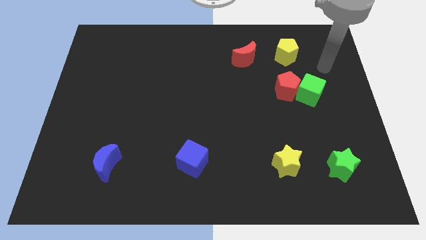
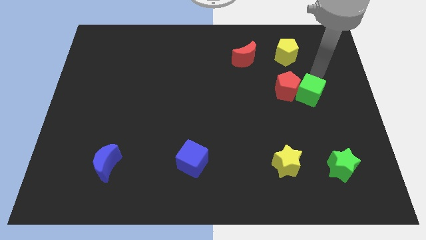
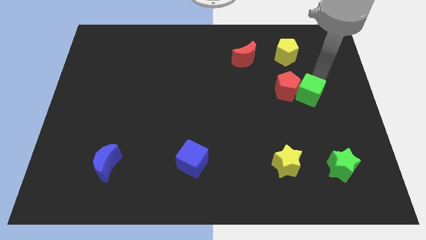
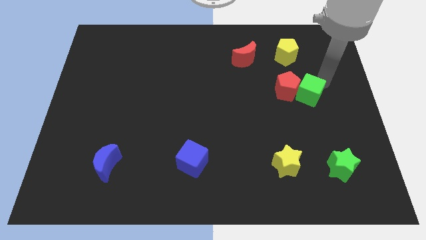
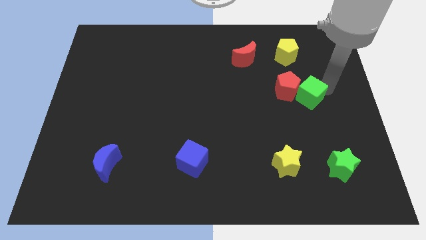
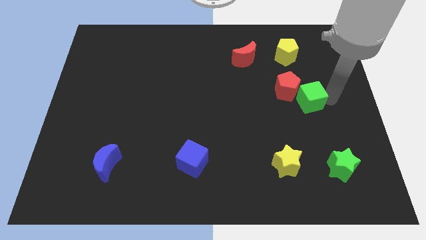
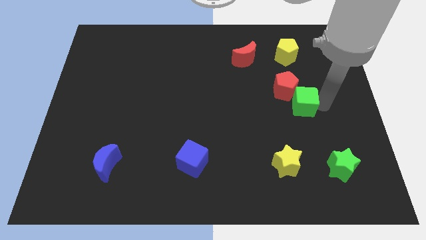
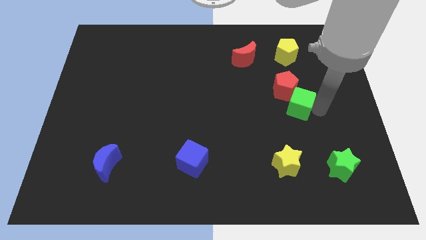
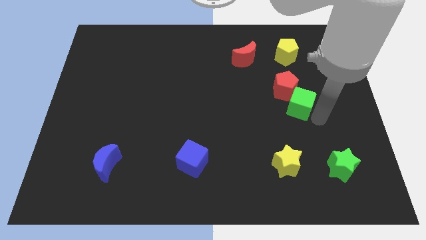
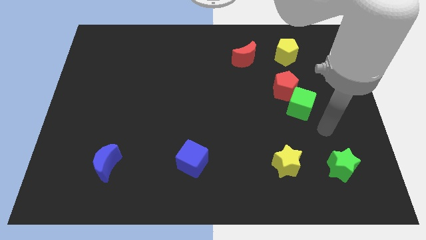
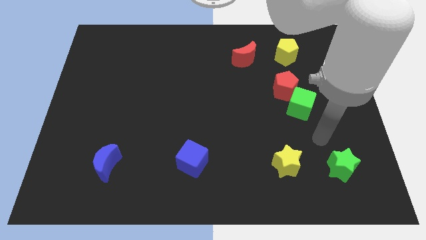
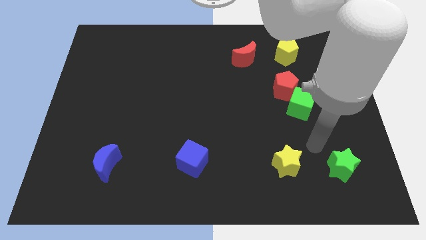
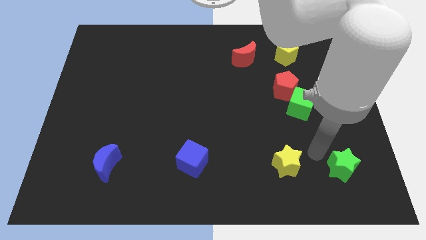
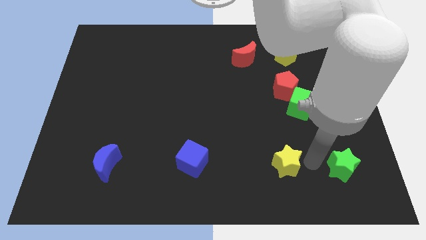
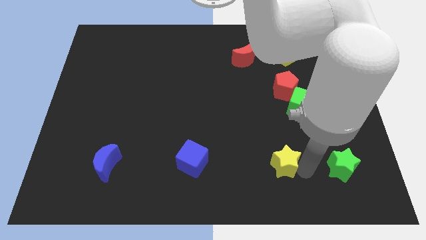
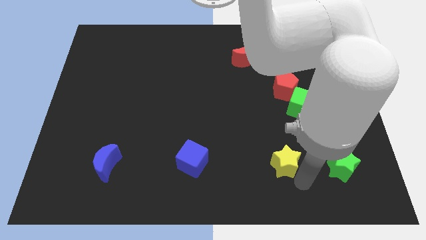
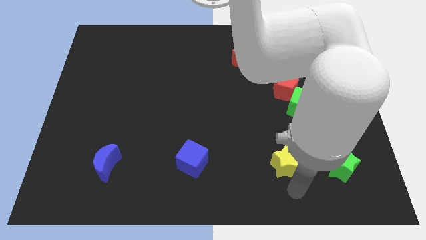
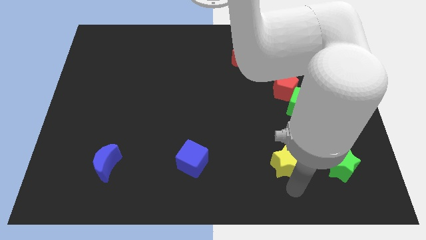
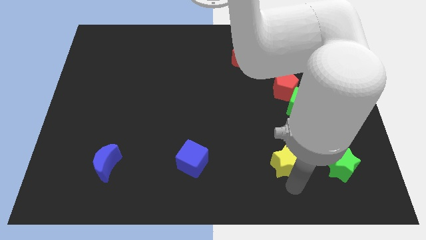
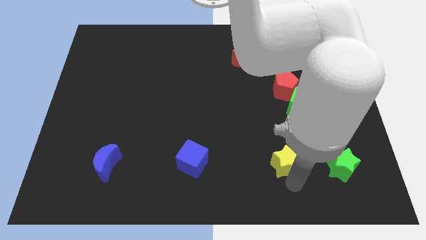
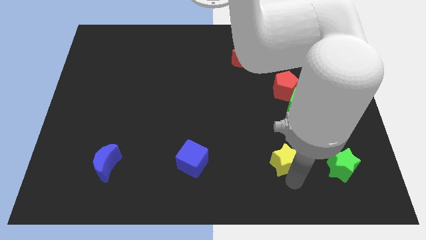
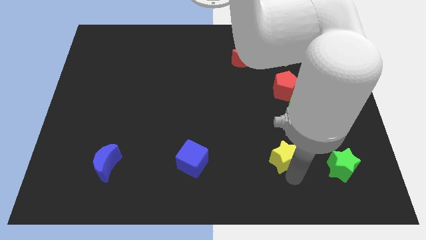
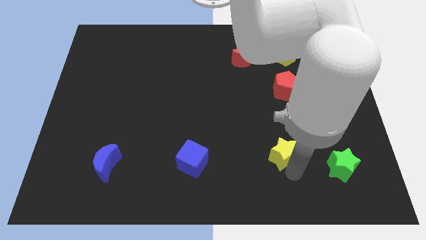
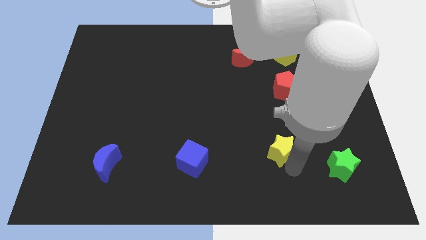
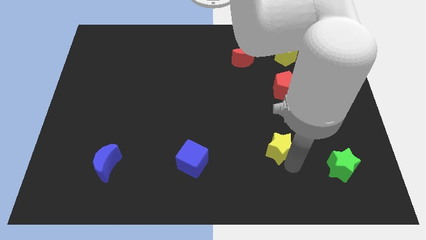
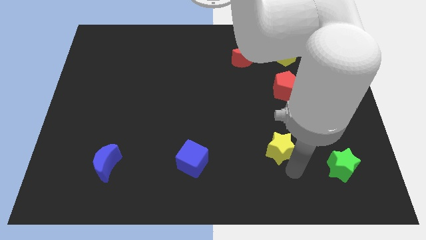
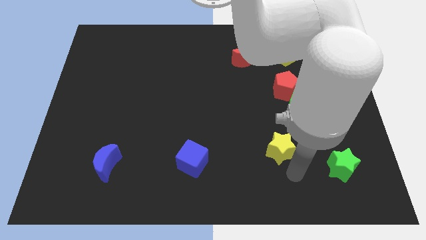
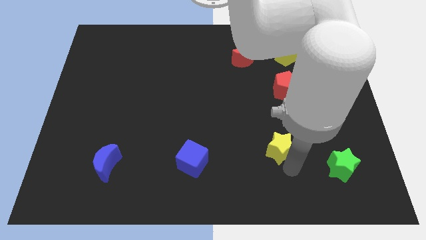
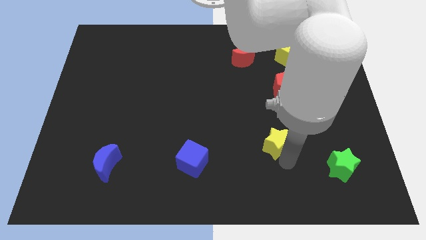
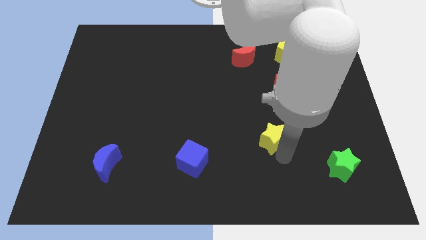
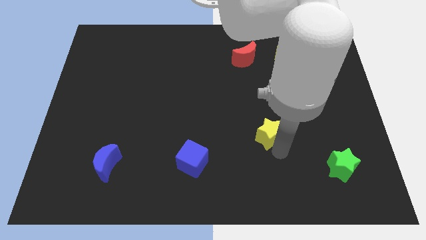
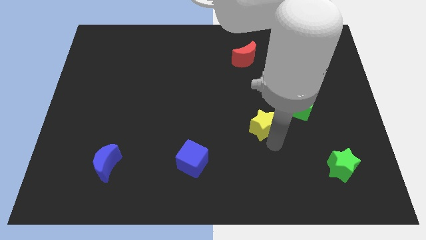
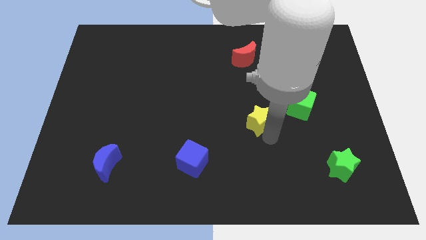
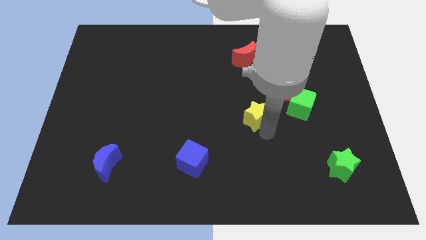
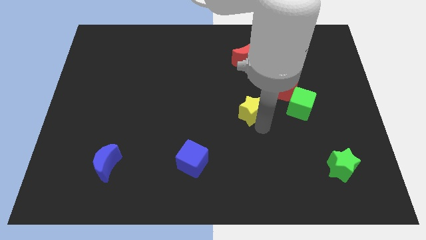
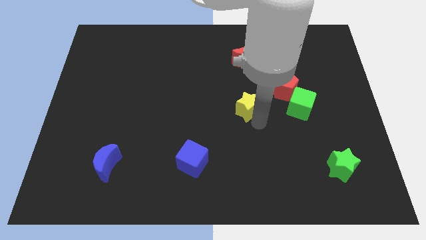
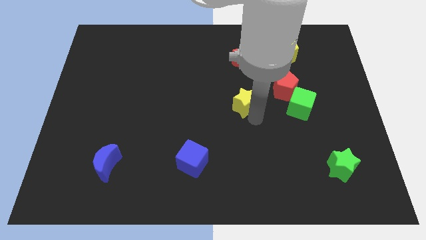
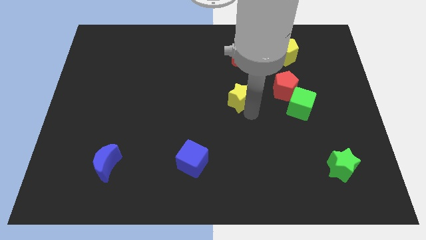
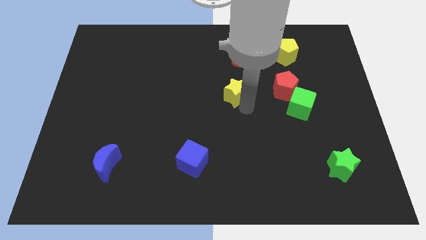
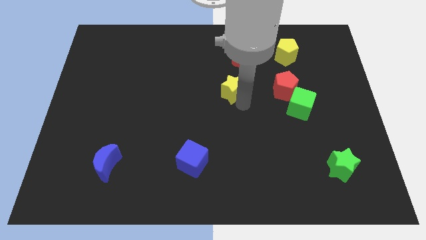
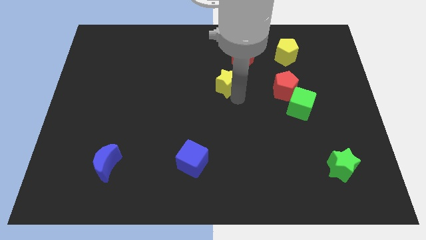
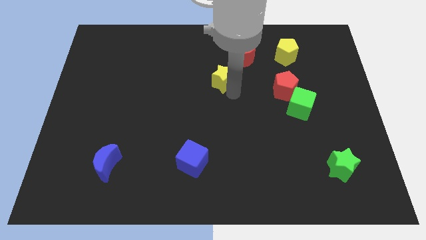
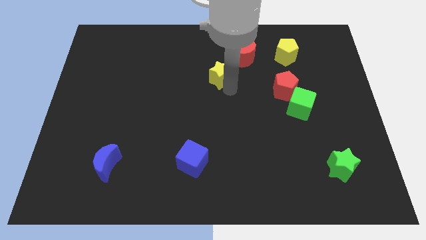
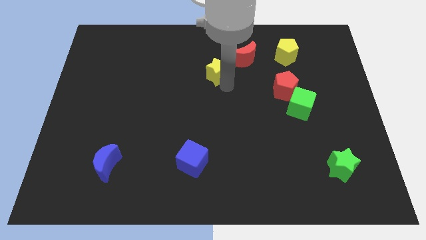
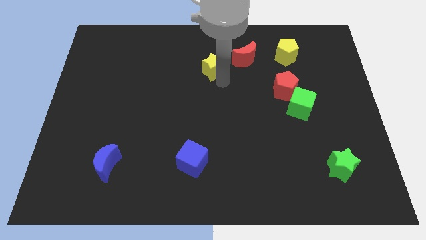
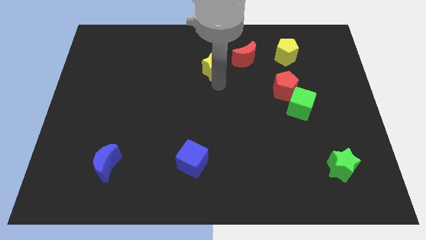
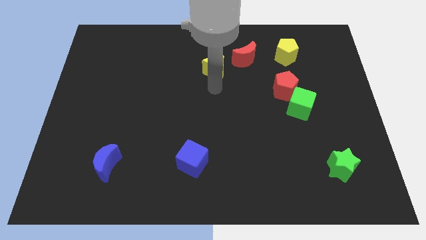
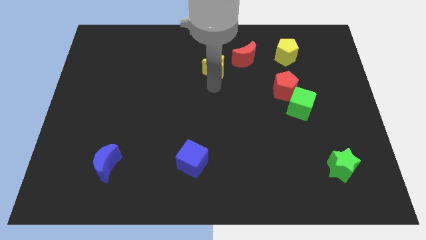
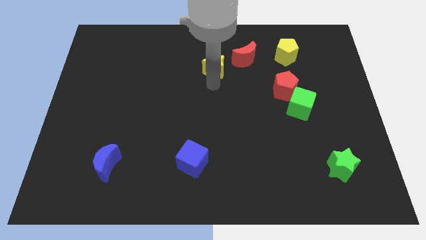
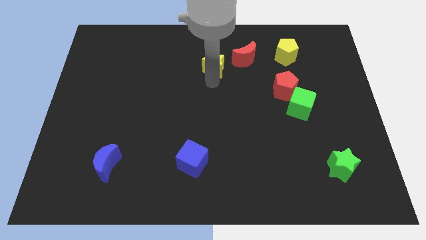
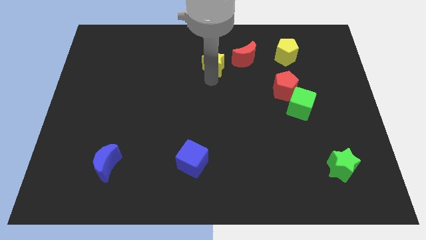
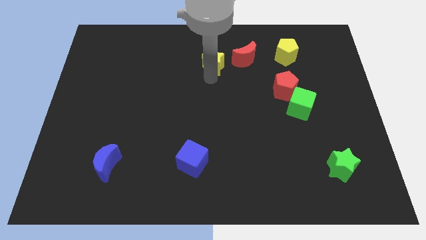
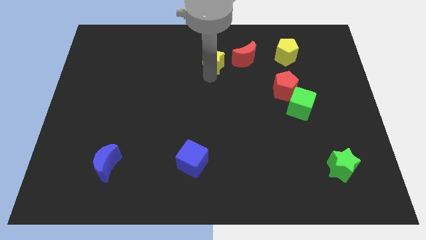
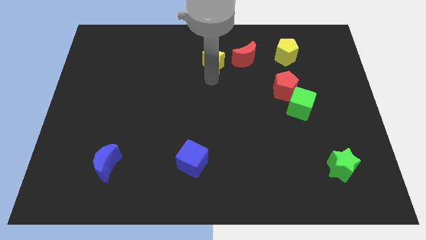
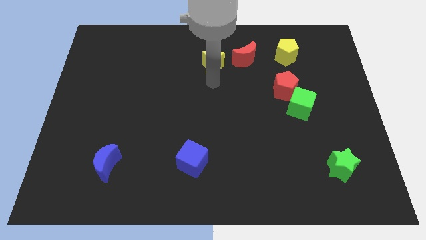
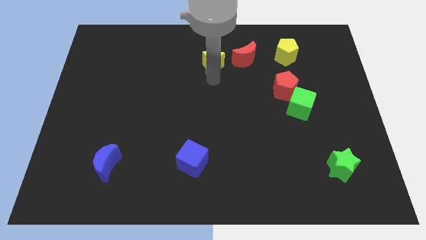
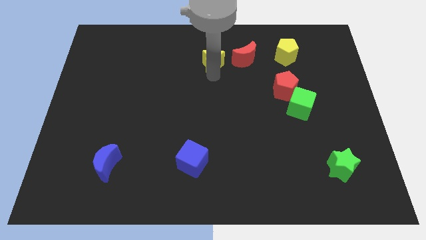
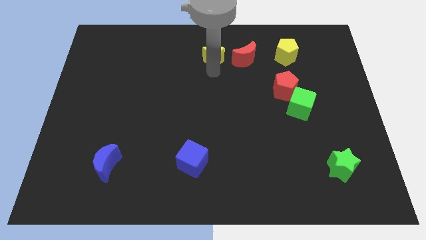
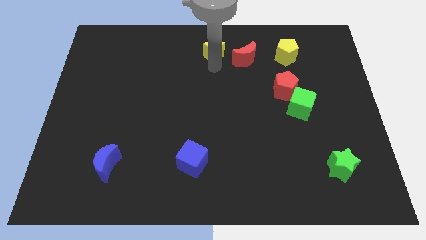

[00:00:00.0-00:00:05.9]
put the yellow star to the top
